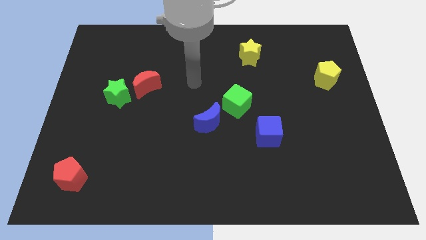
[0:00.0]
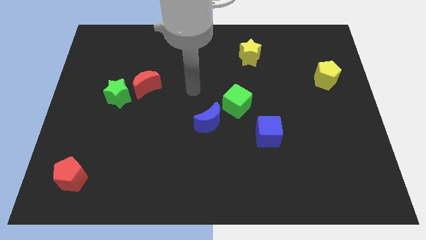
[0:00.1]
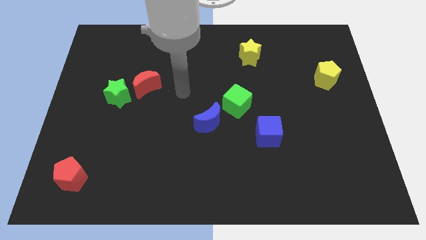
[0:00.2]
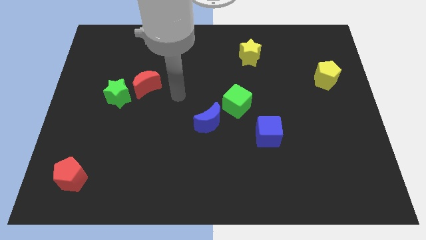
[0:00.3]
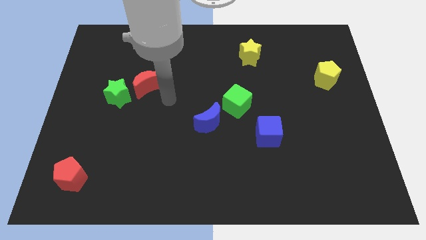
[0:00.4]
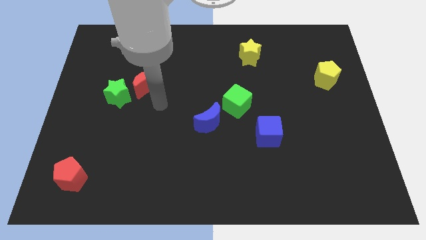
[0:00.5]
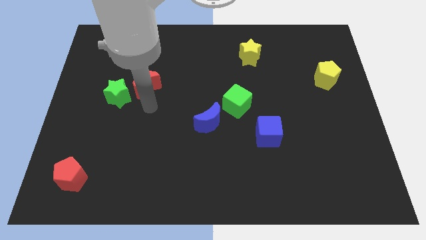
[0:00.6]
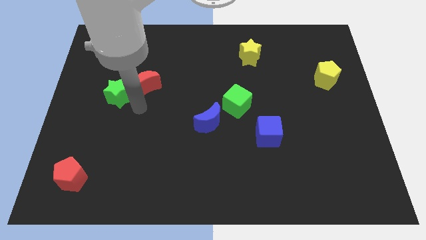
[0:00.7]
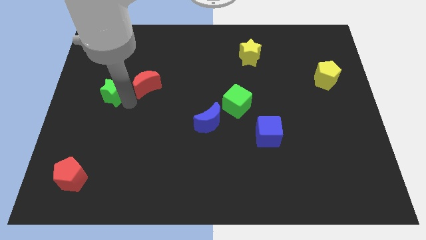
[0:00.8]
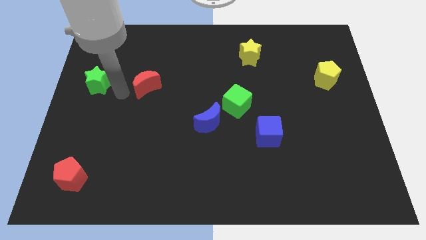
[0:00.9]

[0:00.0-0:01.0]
pull the red moon apart from the green star

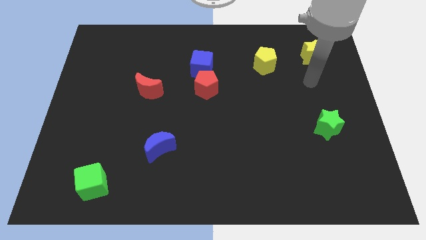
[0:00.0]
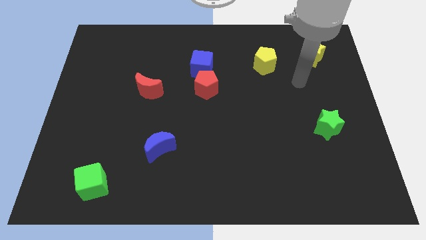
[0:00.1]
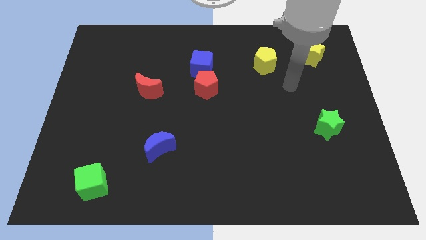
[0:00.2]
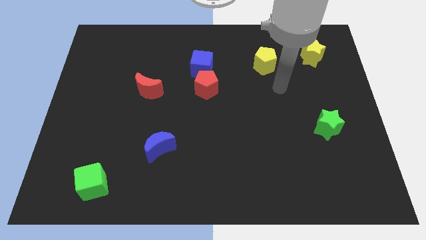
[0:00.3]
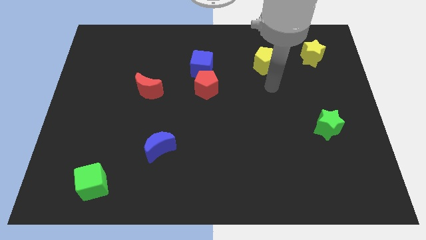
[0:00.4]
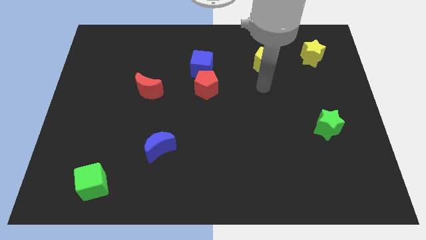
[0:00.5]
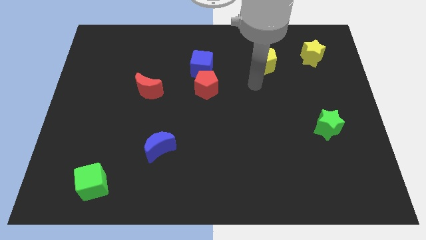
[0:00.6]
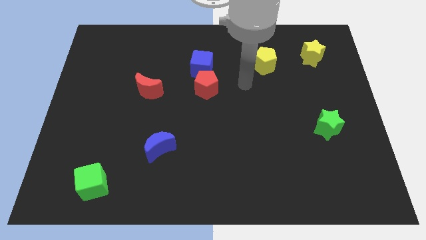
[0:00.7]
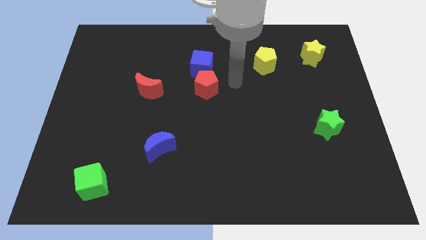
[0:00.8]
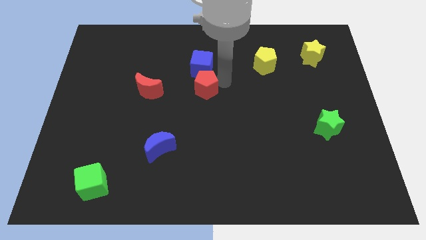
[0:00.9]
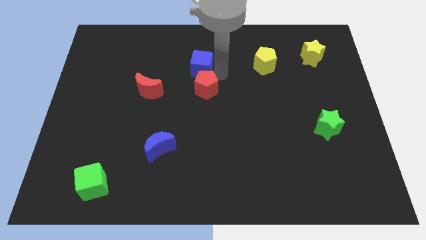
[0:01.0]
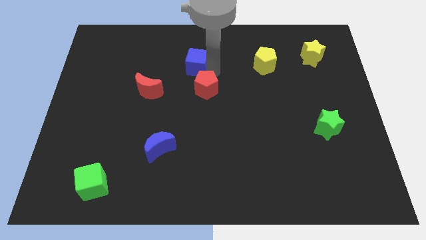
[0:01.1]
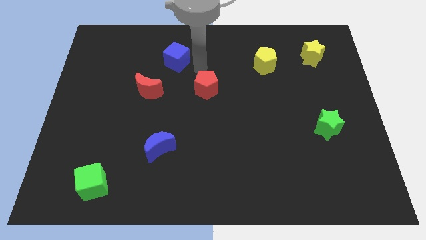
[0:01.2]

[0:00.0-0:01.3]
move the red pentagon away from the blue cube

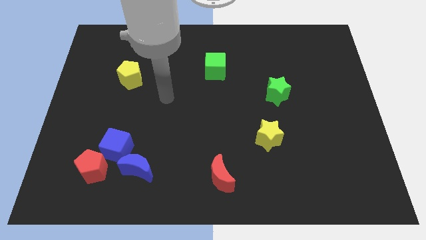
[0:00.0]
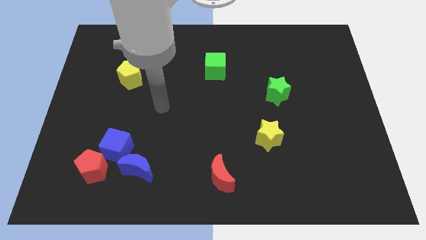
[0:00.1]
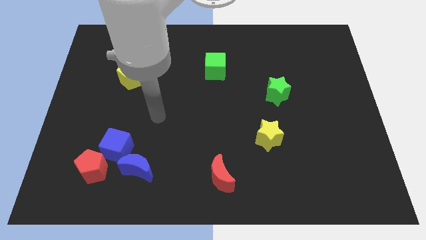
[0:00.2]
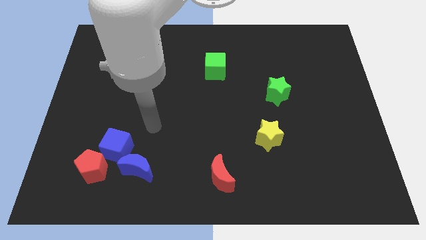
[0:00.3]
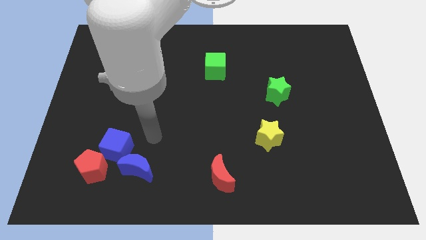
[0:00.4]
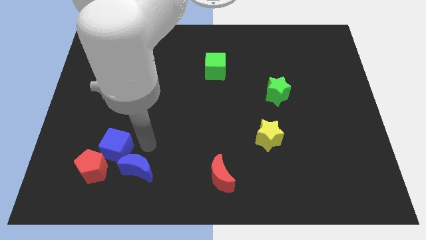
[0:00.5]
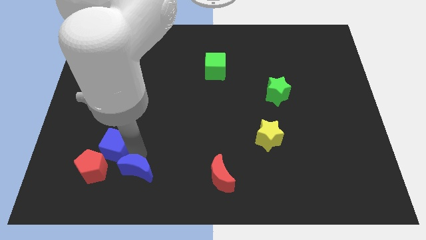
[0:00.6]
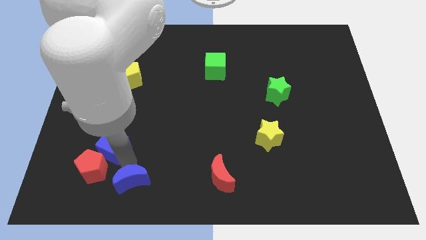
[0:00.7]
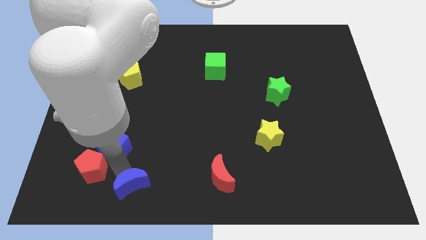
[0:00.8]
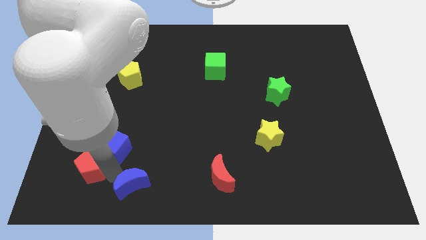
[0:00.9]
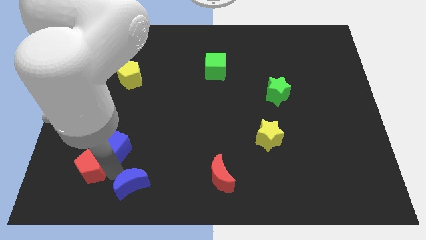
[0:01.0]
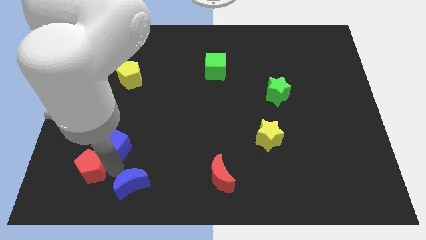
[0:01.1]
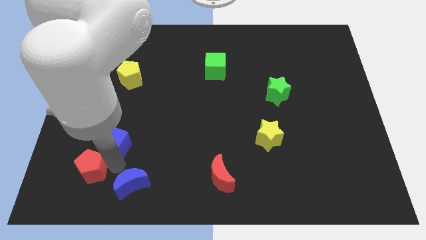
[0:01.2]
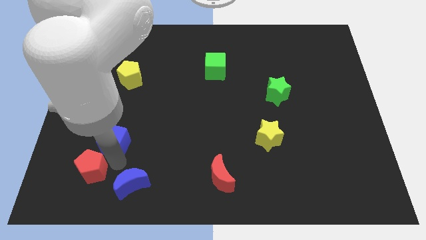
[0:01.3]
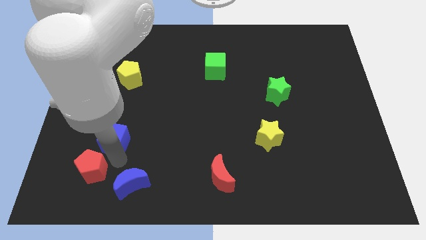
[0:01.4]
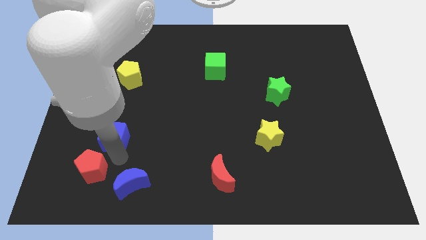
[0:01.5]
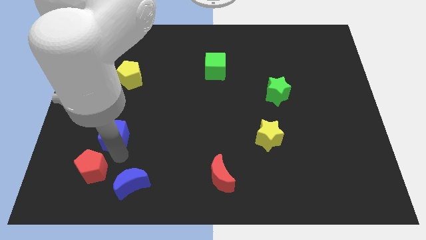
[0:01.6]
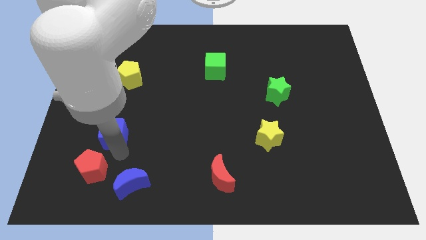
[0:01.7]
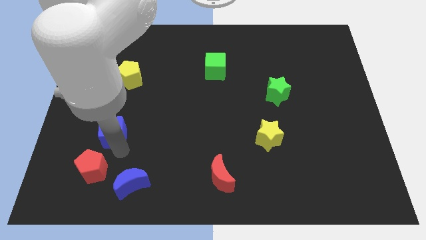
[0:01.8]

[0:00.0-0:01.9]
move the blue cube away from the red pentagon and blue moon

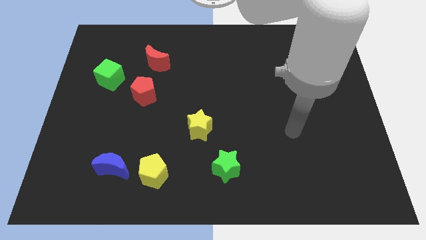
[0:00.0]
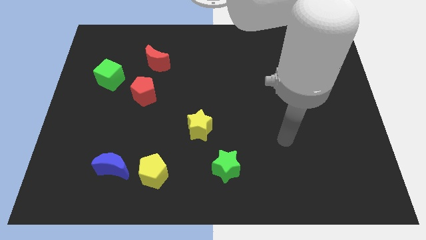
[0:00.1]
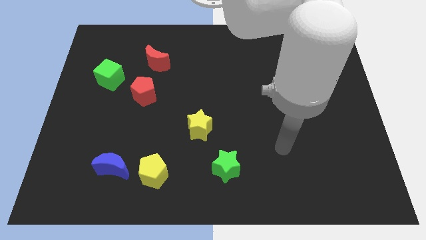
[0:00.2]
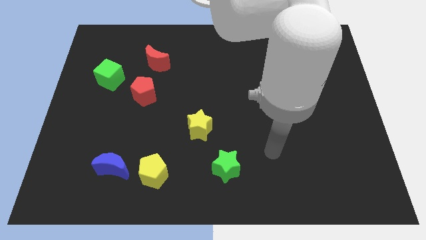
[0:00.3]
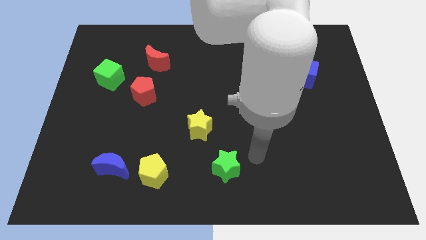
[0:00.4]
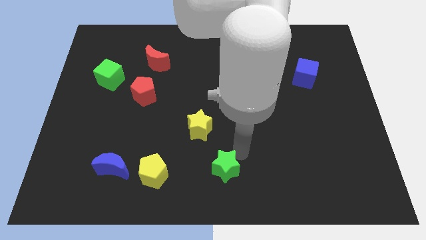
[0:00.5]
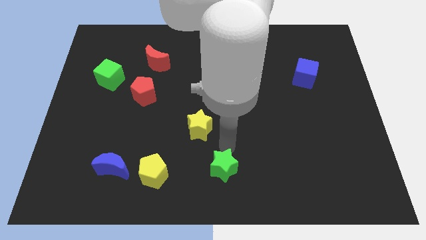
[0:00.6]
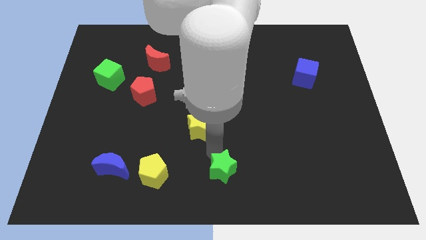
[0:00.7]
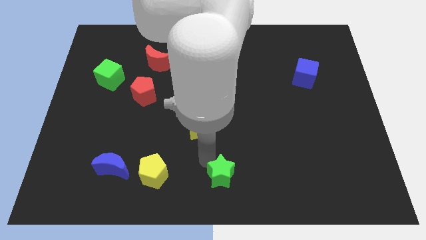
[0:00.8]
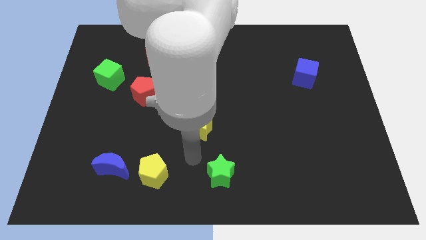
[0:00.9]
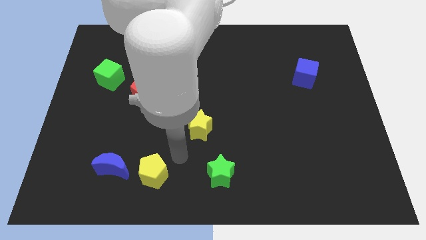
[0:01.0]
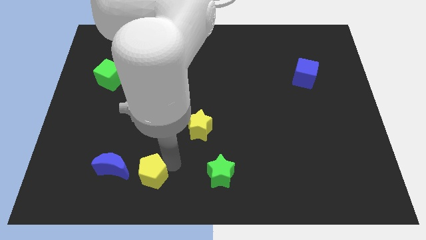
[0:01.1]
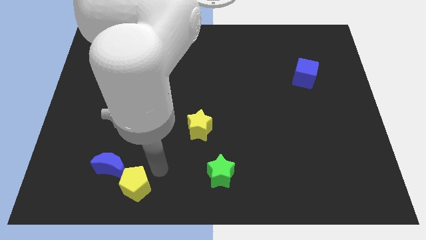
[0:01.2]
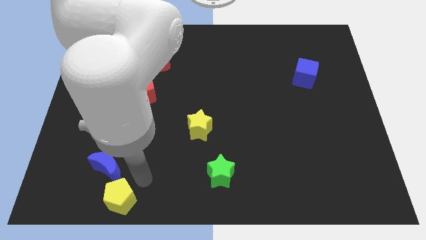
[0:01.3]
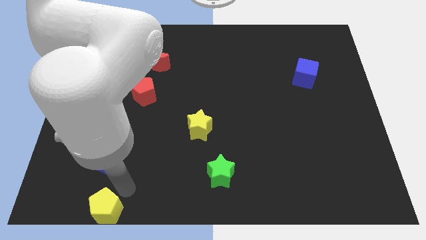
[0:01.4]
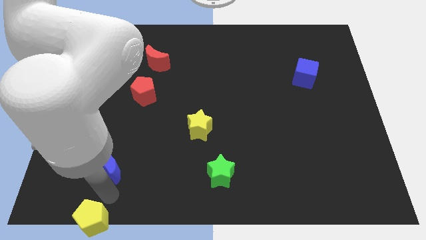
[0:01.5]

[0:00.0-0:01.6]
separate the blue moon from the yellow pentagon

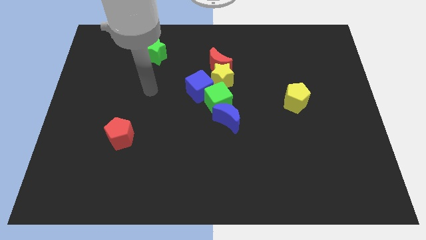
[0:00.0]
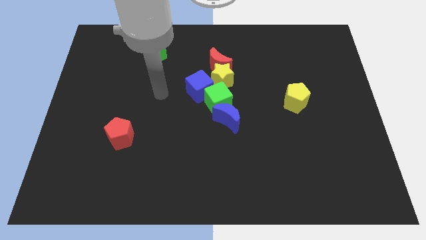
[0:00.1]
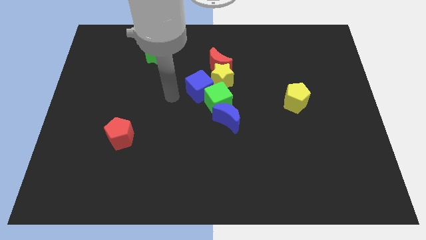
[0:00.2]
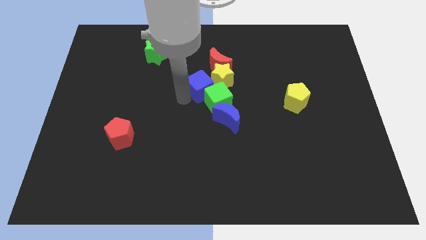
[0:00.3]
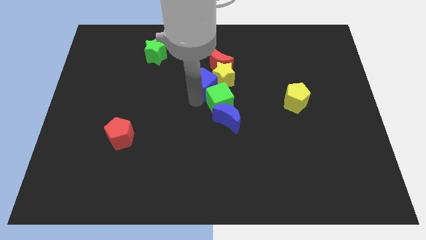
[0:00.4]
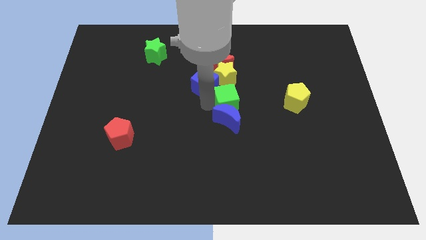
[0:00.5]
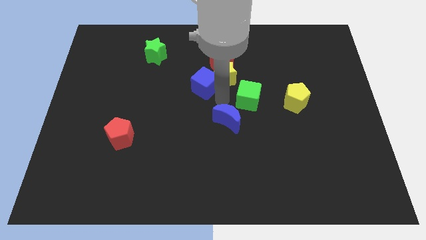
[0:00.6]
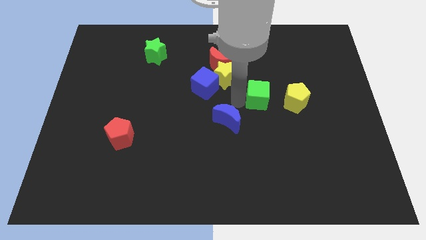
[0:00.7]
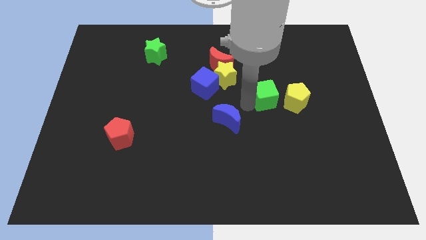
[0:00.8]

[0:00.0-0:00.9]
move the blue moon away from the green cube

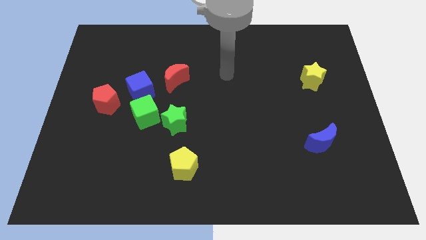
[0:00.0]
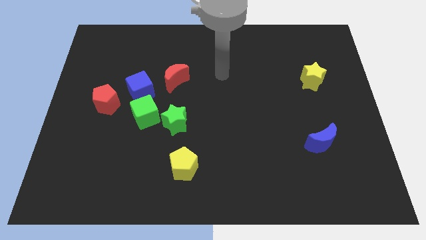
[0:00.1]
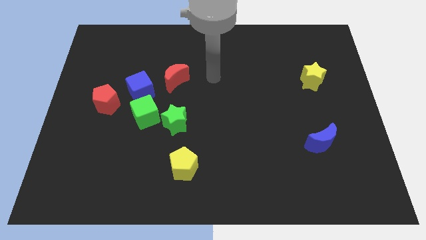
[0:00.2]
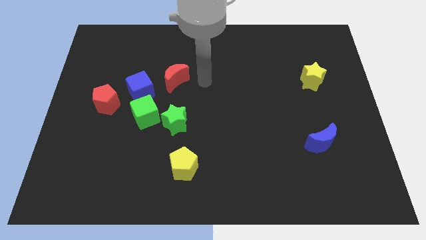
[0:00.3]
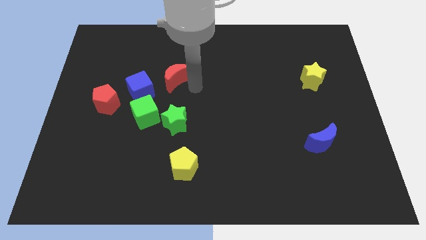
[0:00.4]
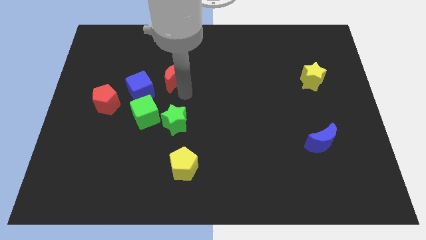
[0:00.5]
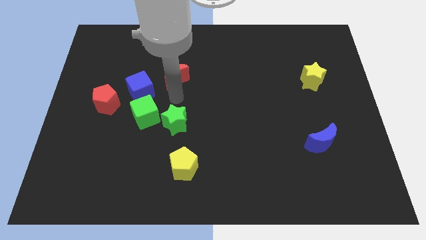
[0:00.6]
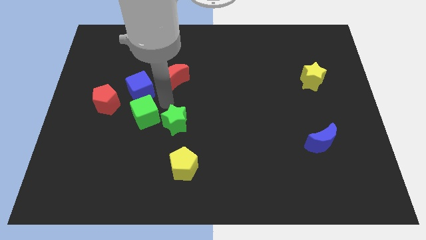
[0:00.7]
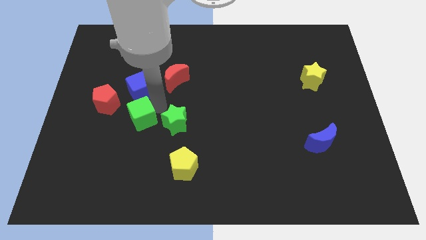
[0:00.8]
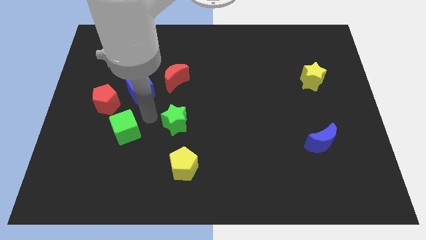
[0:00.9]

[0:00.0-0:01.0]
pull the green star apart from the green cube

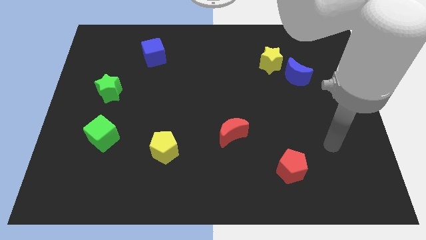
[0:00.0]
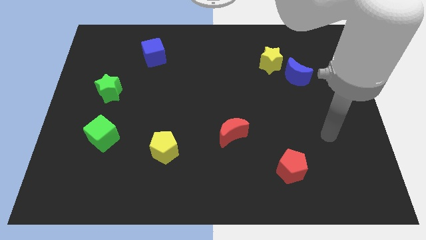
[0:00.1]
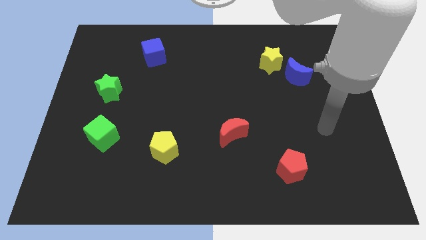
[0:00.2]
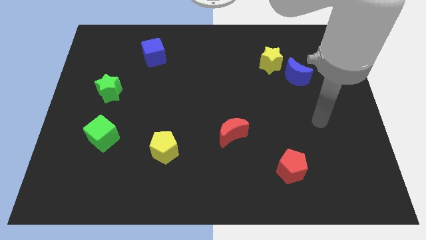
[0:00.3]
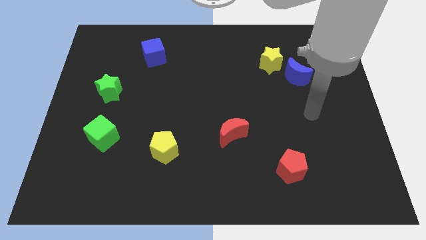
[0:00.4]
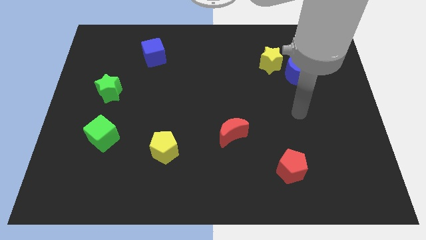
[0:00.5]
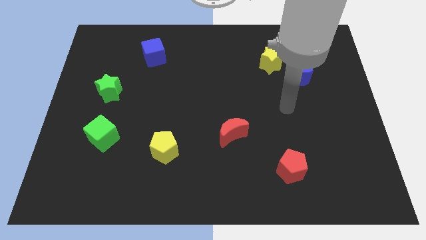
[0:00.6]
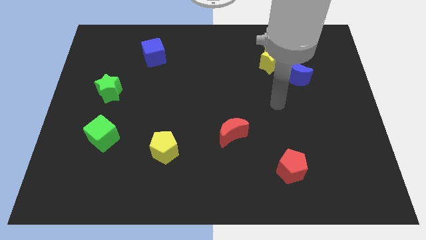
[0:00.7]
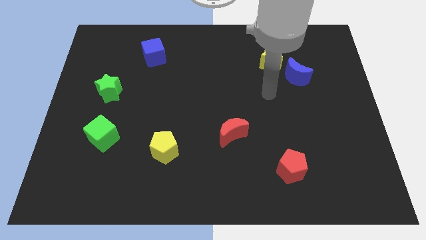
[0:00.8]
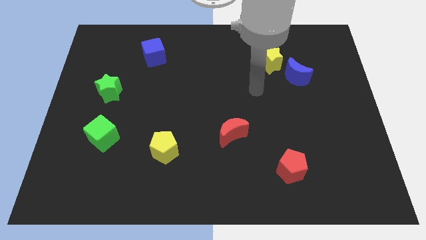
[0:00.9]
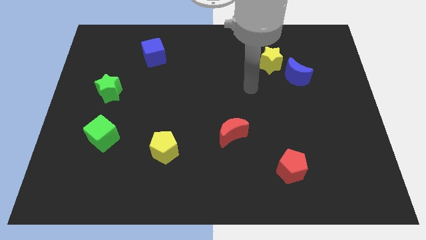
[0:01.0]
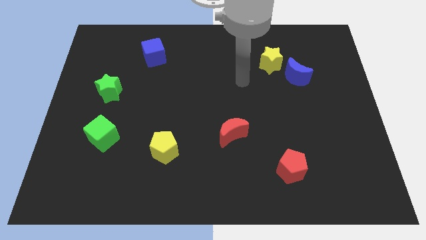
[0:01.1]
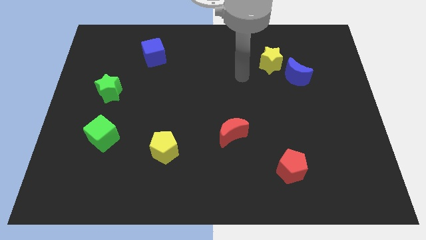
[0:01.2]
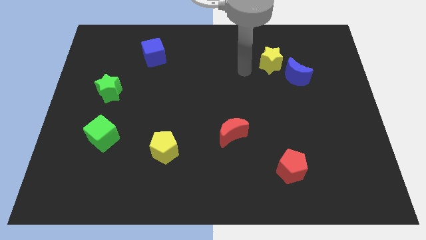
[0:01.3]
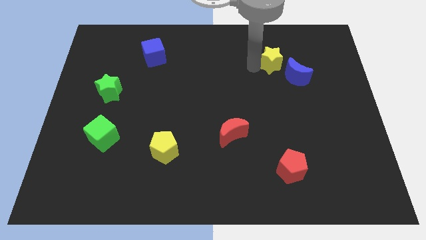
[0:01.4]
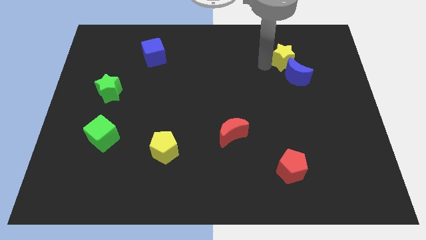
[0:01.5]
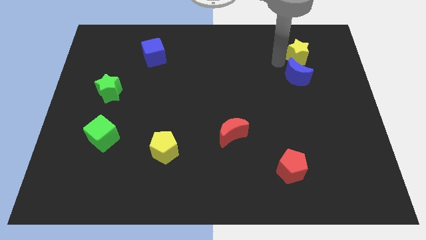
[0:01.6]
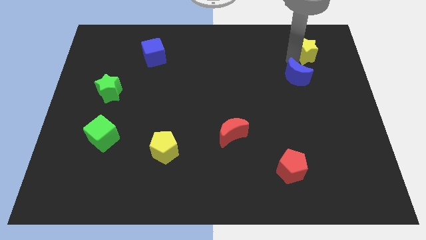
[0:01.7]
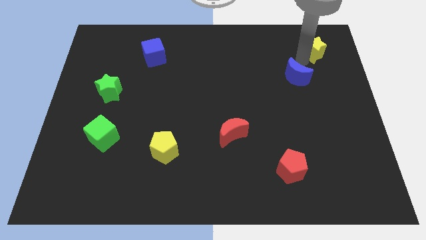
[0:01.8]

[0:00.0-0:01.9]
move the blue moon away from the yellow star
